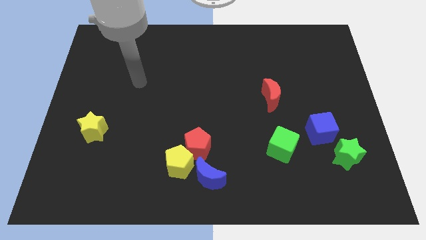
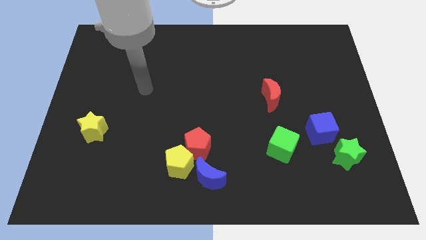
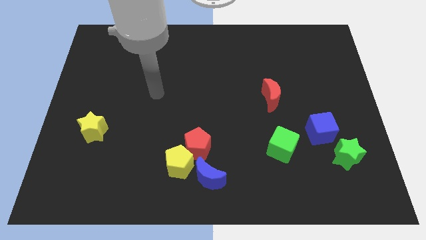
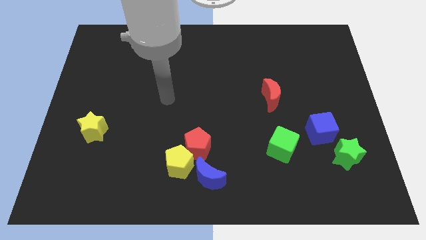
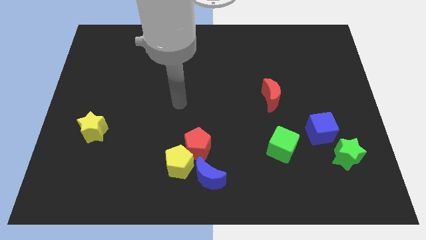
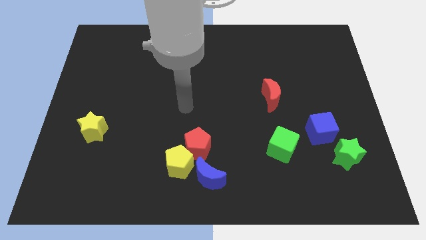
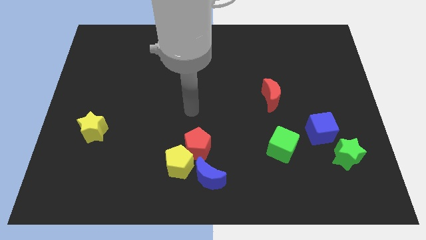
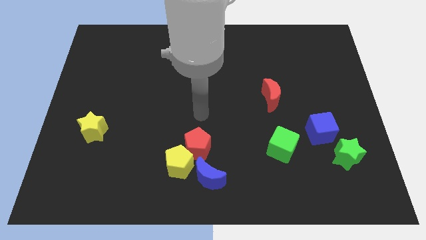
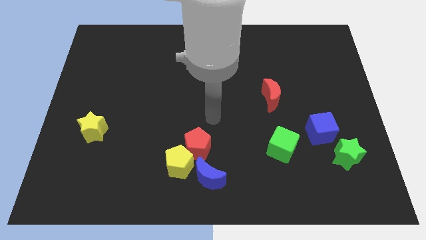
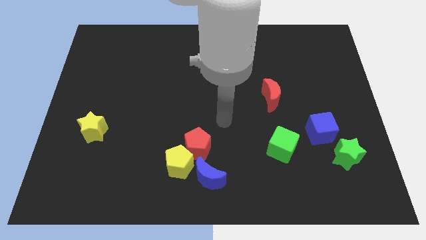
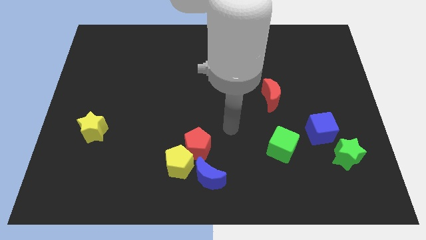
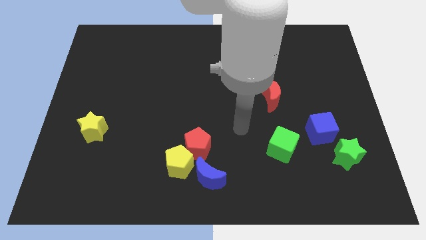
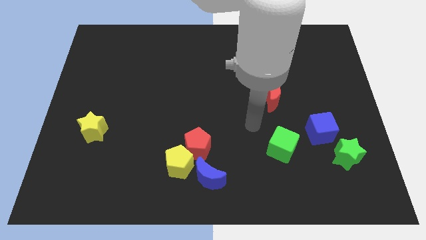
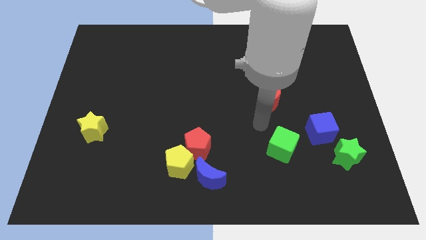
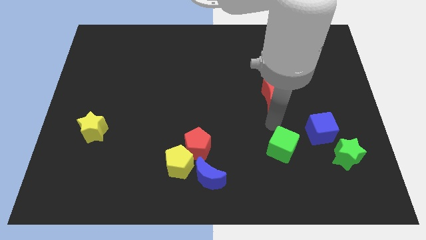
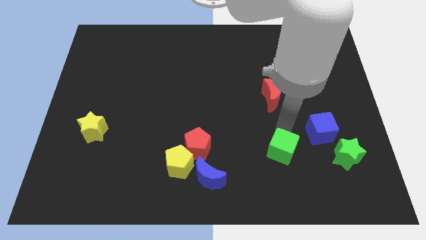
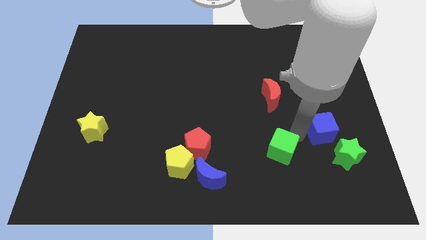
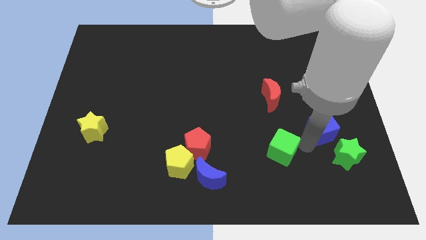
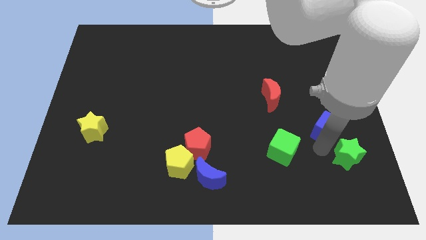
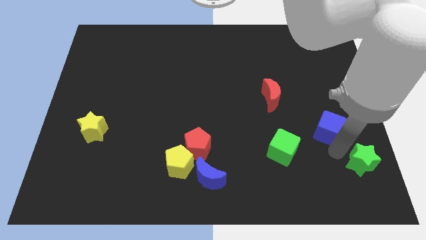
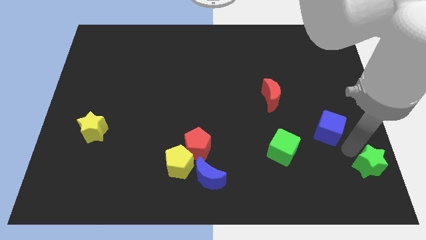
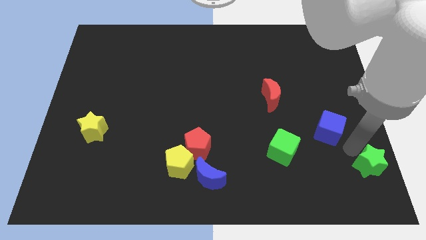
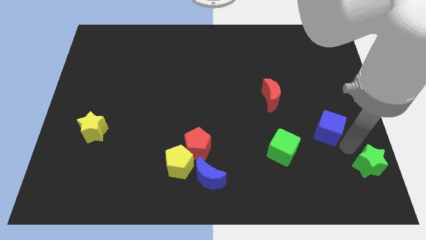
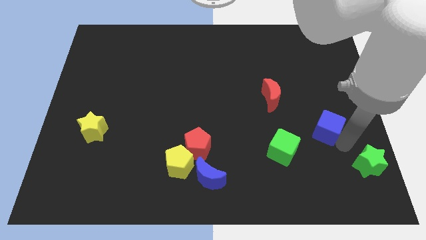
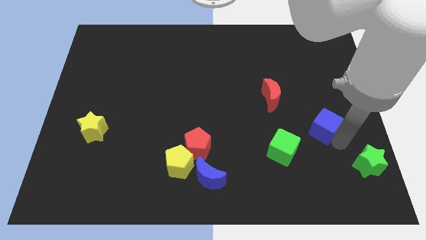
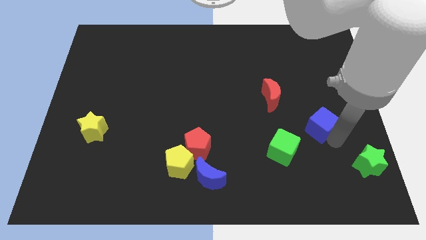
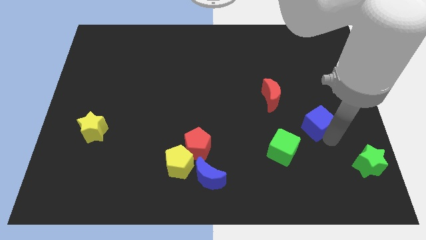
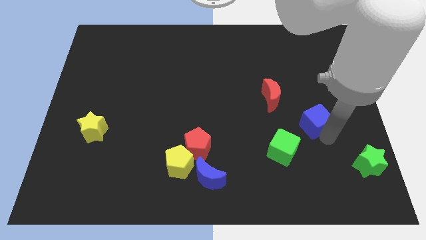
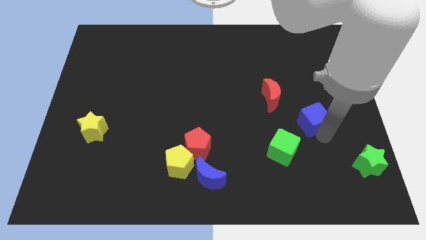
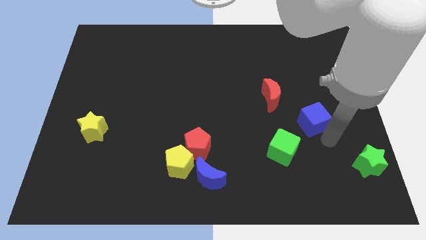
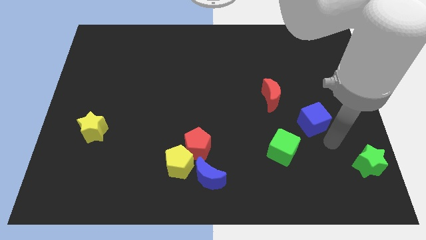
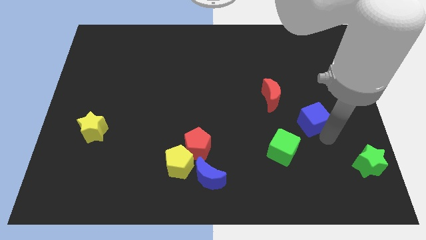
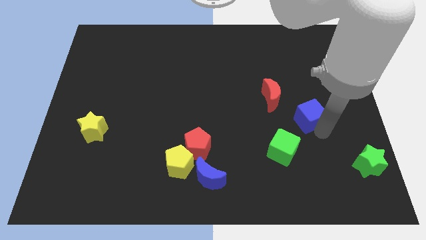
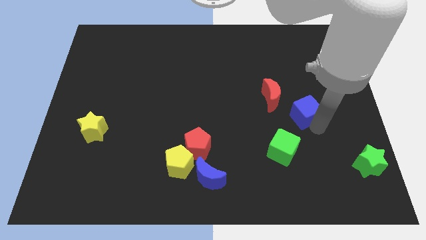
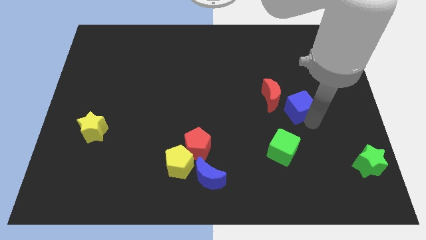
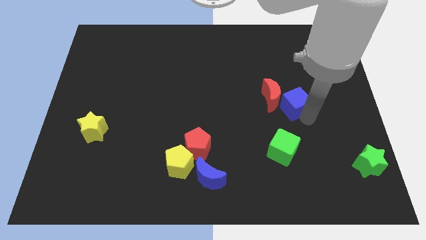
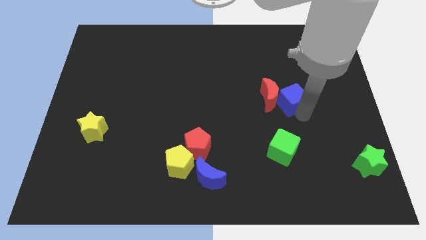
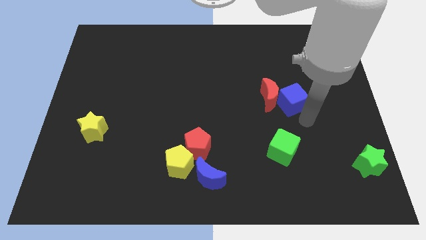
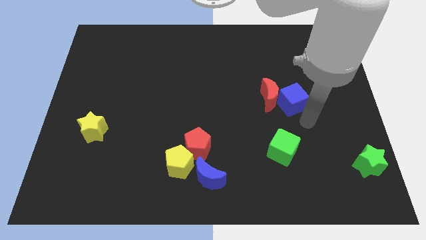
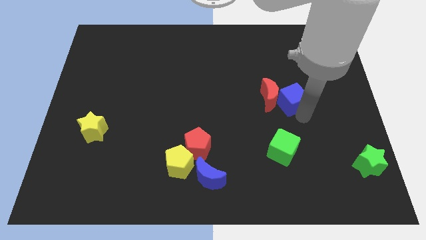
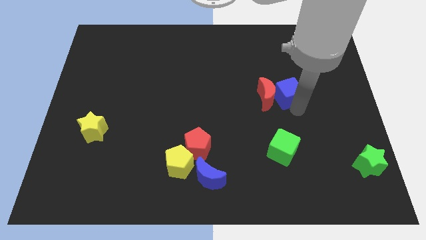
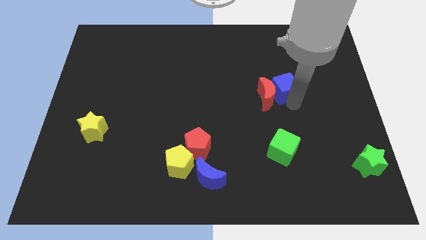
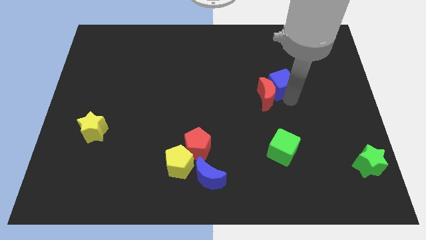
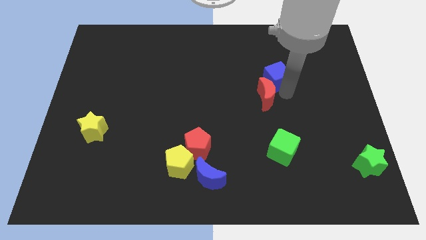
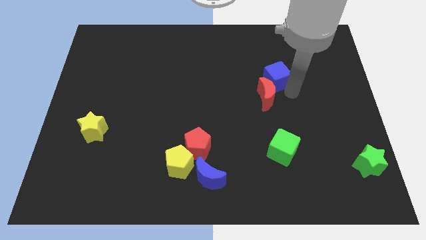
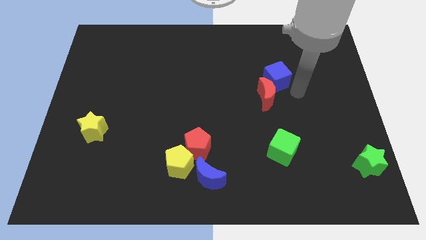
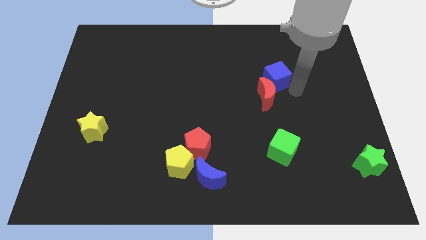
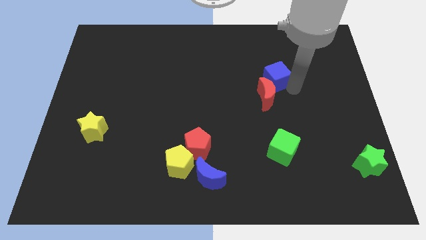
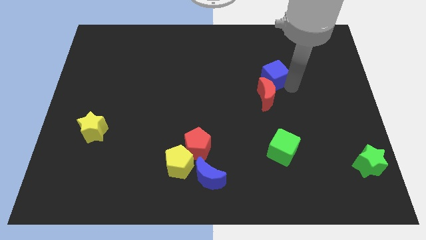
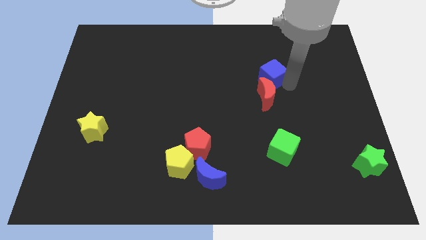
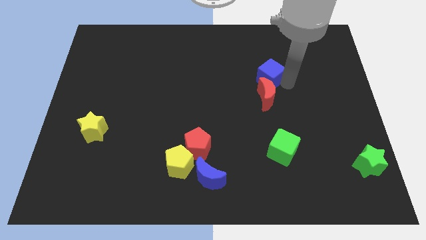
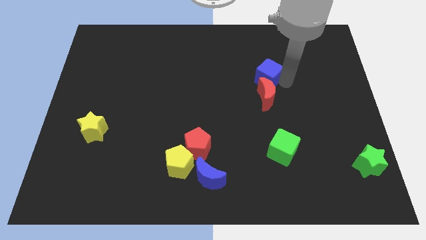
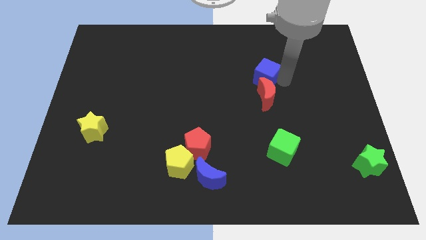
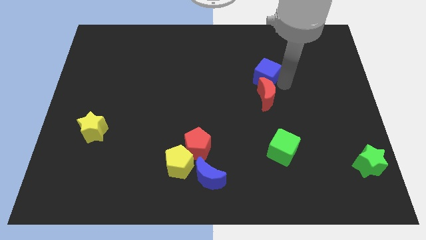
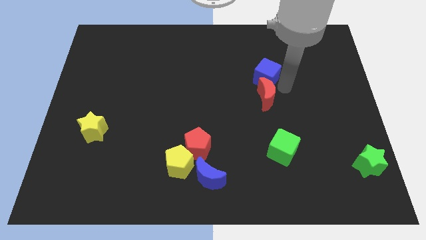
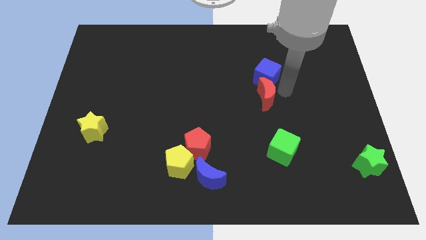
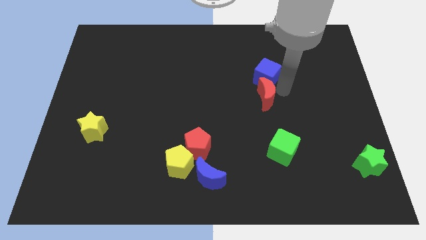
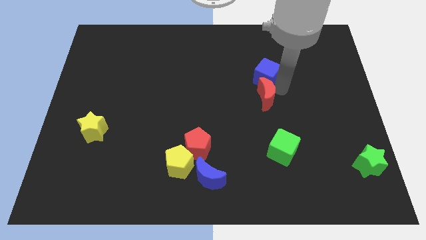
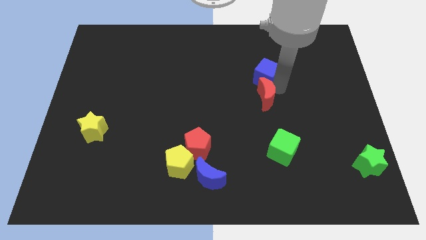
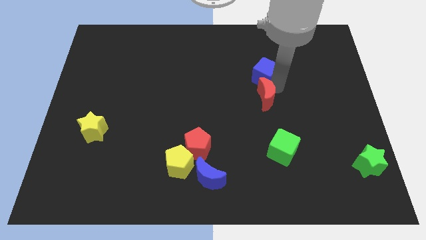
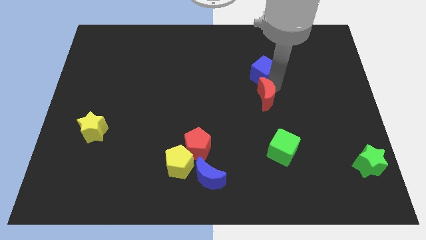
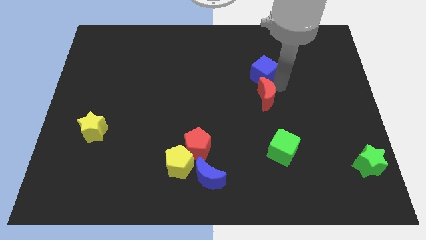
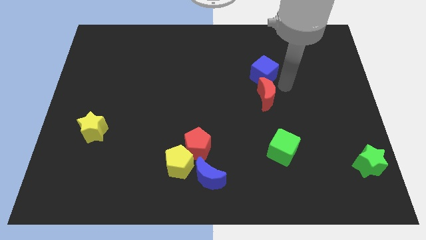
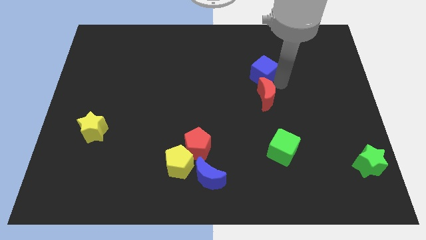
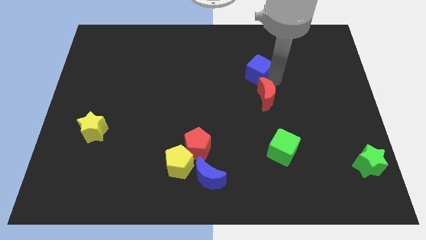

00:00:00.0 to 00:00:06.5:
push the blue cube diagonally up and to the left

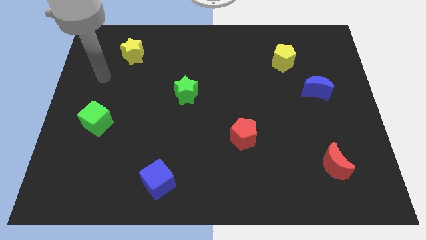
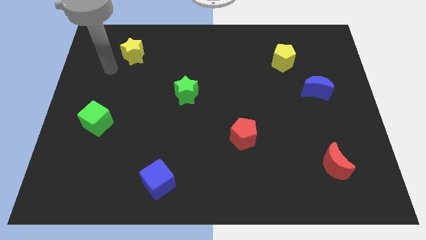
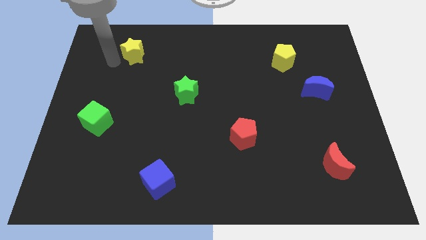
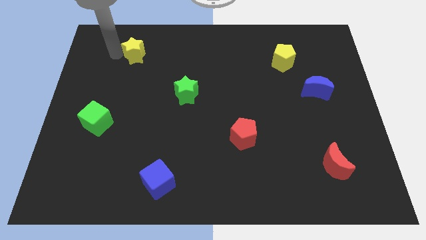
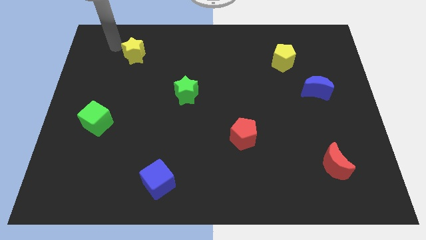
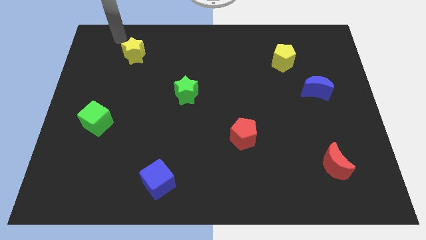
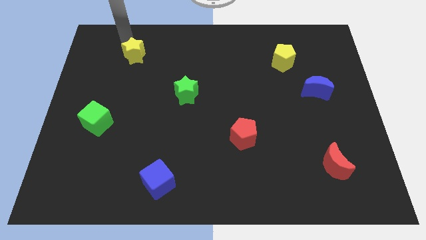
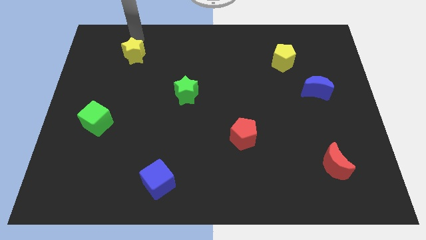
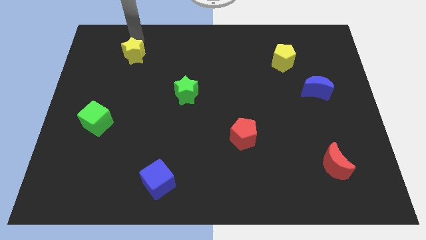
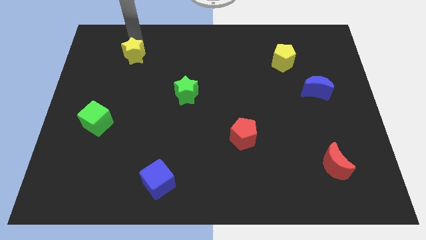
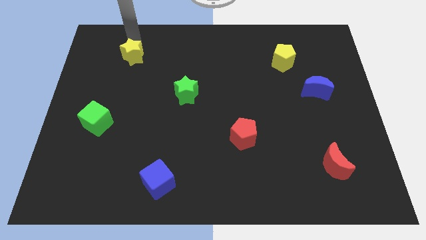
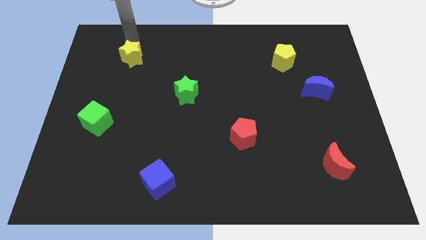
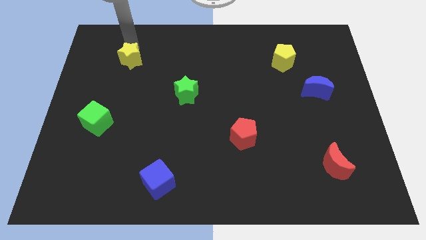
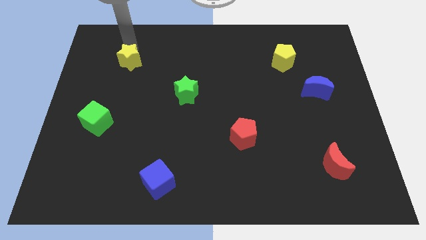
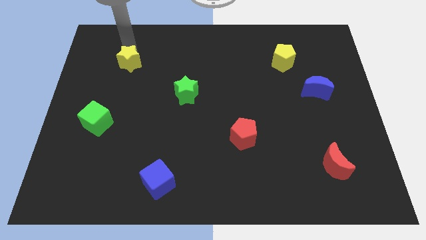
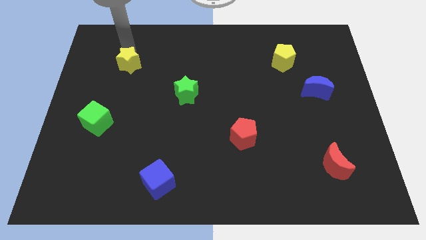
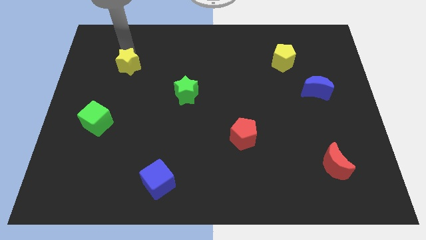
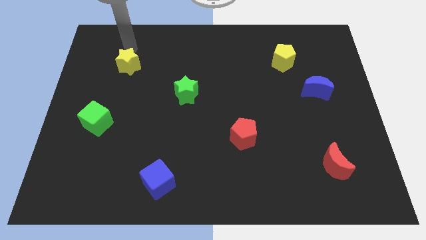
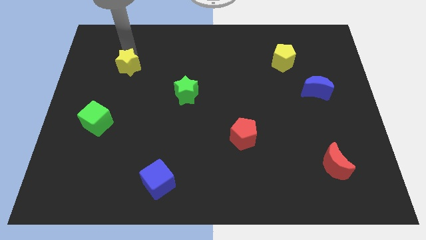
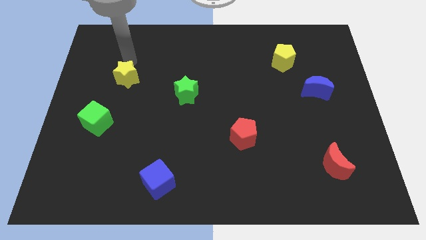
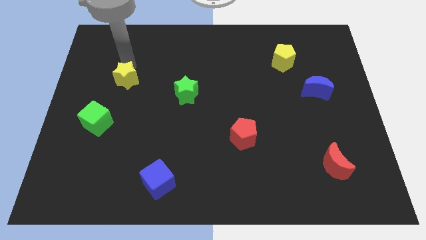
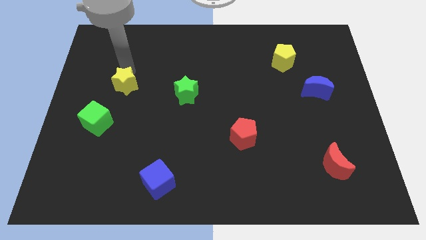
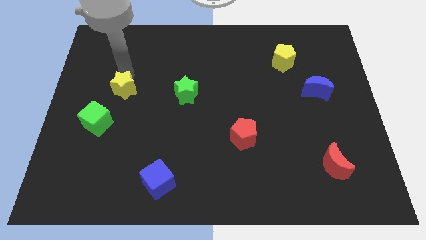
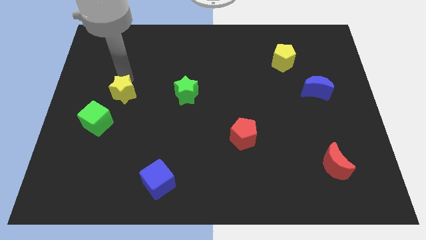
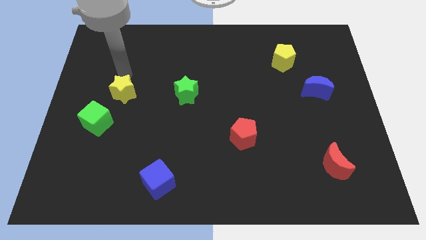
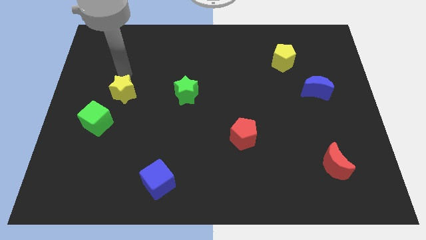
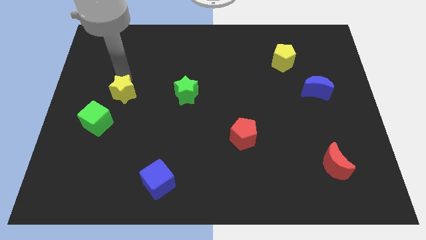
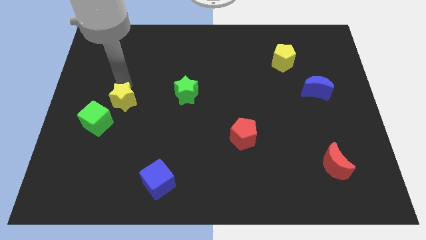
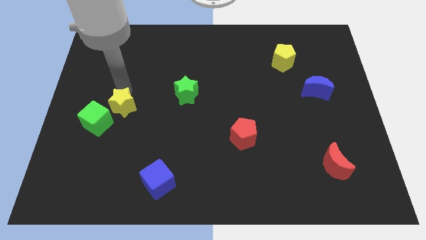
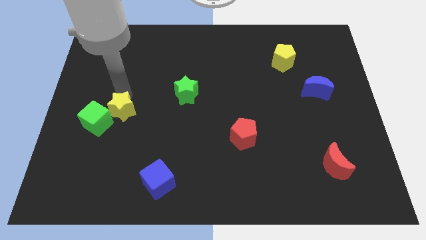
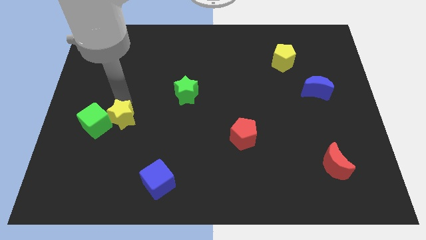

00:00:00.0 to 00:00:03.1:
slide the yellow star down
